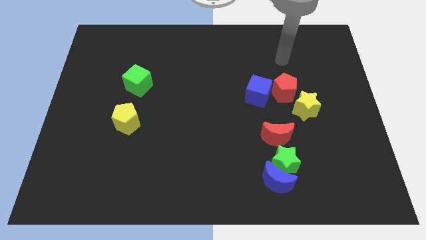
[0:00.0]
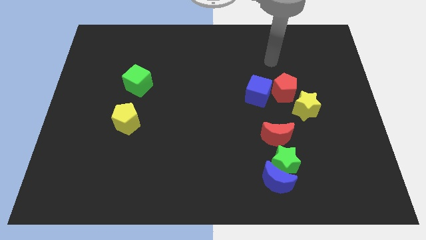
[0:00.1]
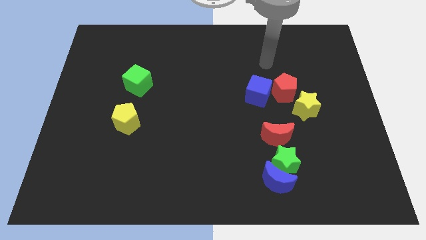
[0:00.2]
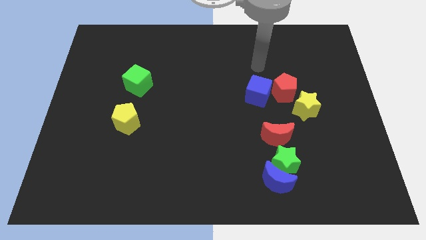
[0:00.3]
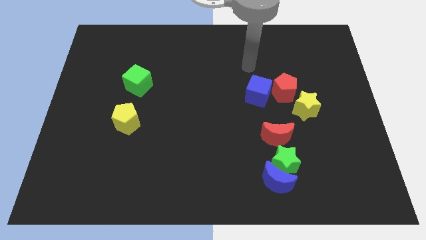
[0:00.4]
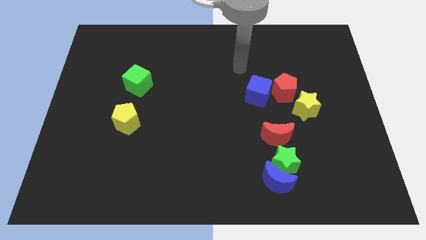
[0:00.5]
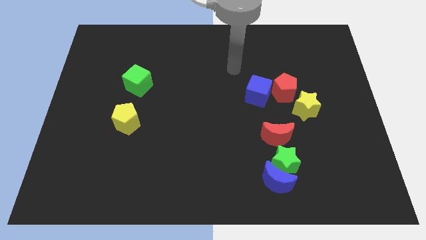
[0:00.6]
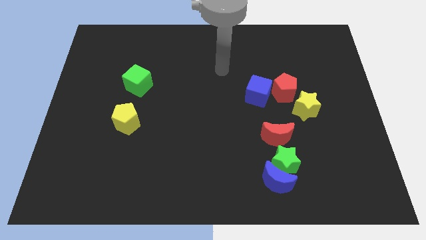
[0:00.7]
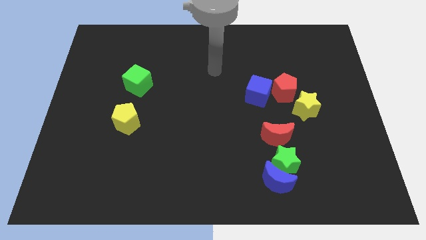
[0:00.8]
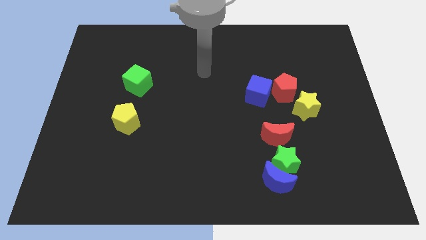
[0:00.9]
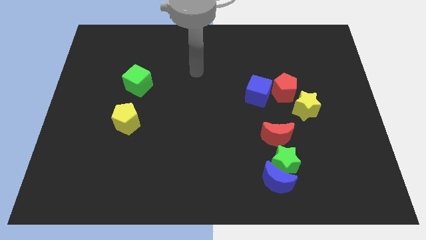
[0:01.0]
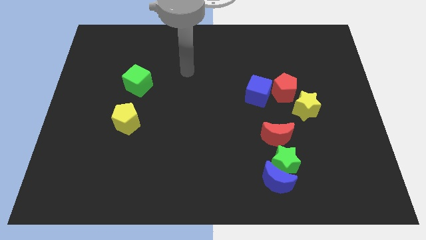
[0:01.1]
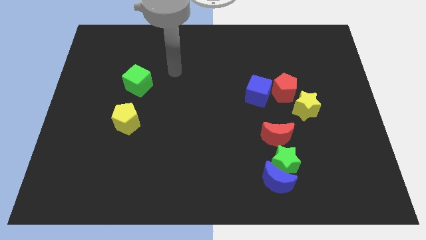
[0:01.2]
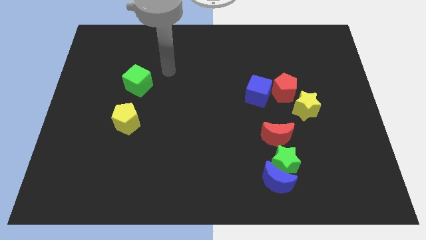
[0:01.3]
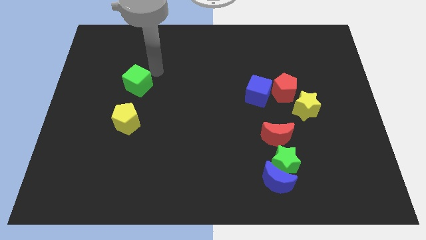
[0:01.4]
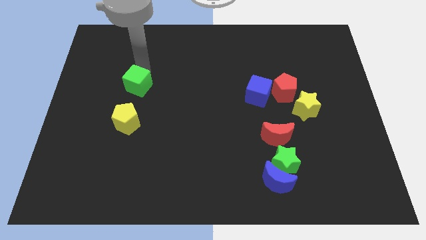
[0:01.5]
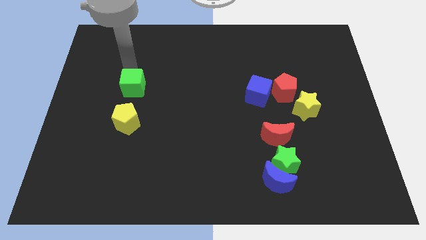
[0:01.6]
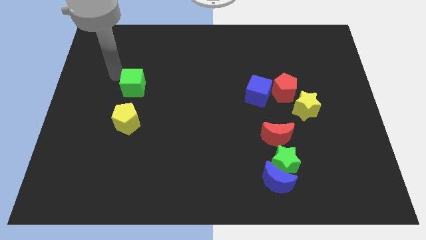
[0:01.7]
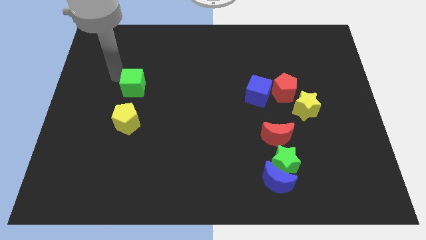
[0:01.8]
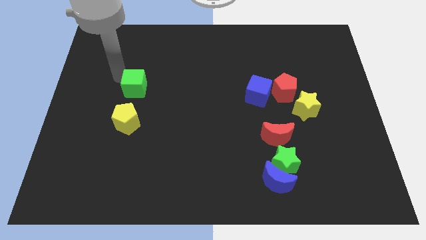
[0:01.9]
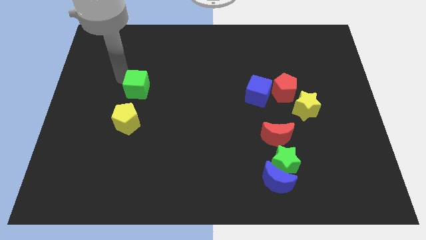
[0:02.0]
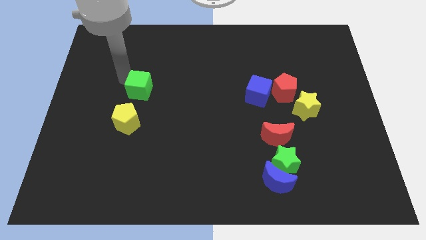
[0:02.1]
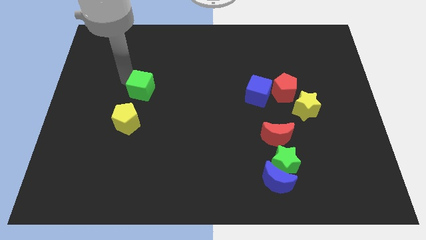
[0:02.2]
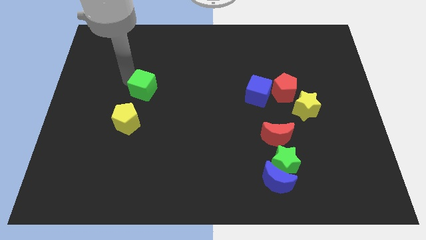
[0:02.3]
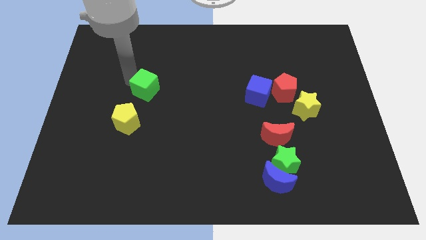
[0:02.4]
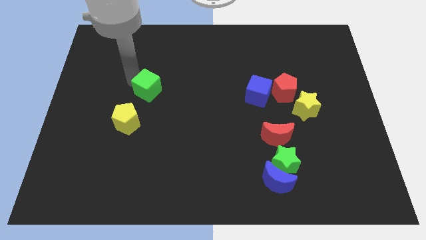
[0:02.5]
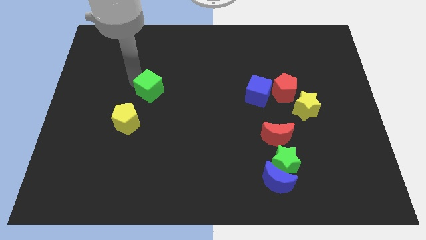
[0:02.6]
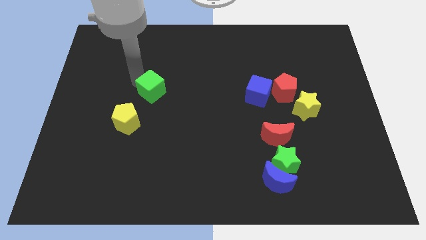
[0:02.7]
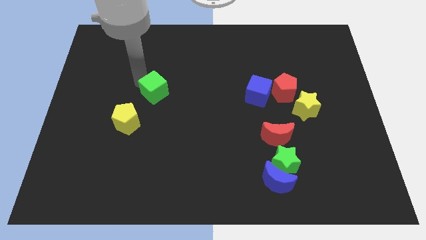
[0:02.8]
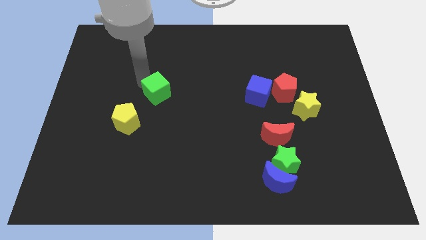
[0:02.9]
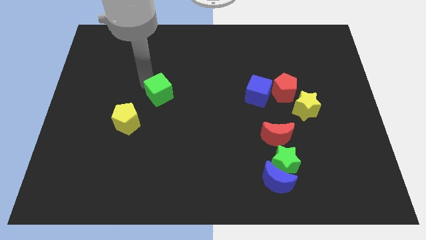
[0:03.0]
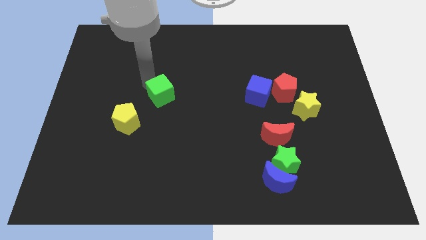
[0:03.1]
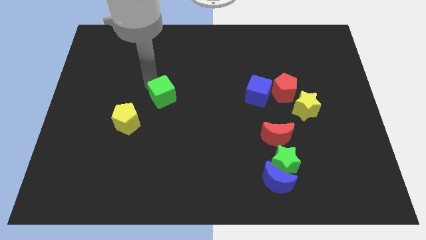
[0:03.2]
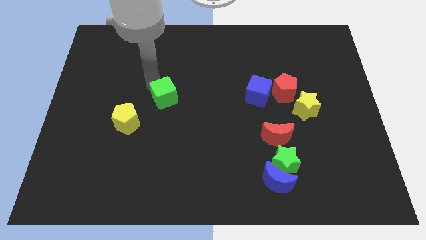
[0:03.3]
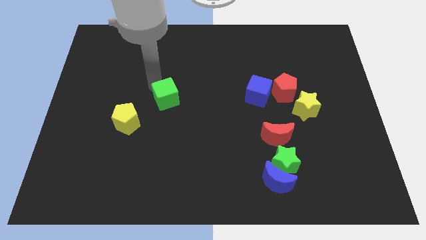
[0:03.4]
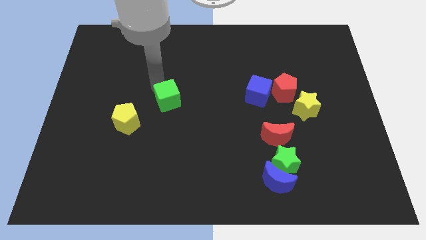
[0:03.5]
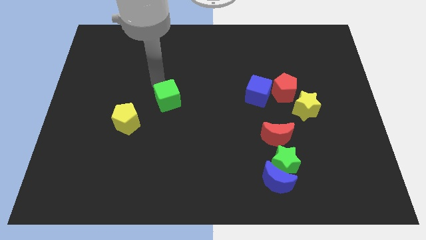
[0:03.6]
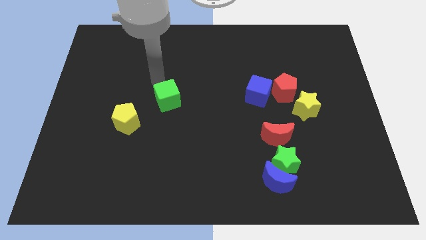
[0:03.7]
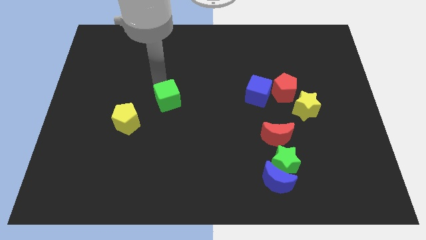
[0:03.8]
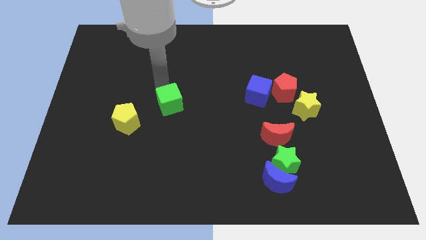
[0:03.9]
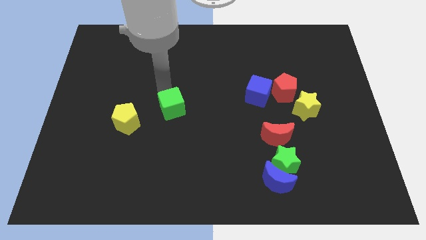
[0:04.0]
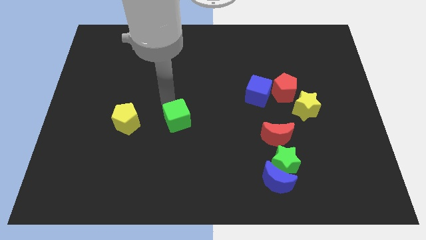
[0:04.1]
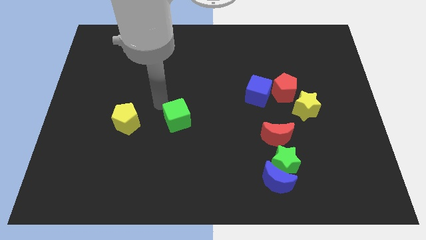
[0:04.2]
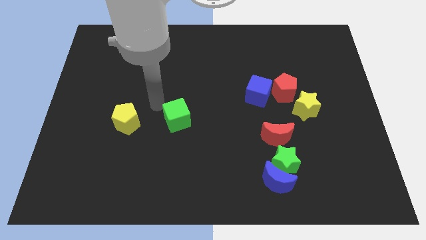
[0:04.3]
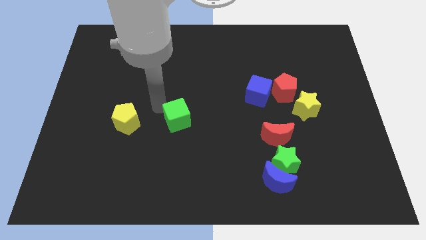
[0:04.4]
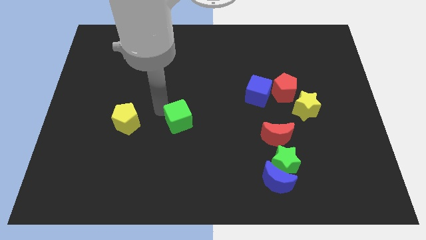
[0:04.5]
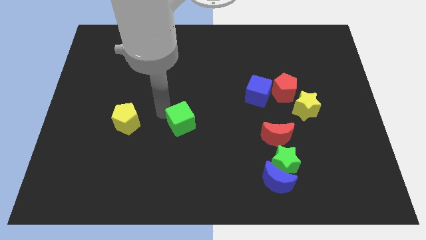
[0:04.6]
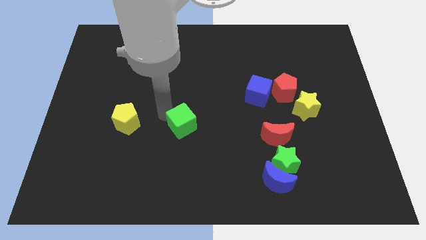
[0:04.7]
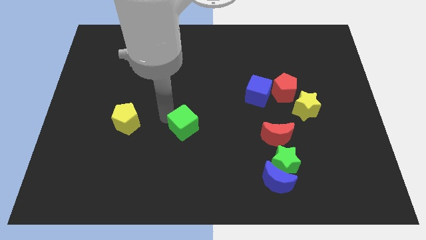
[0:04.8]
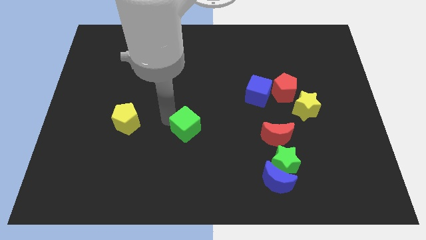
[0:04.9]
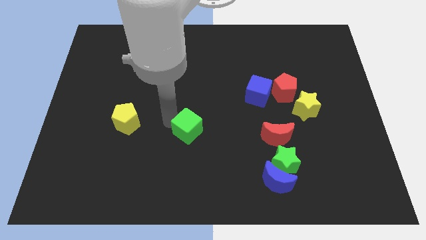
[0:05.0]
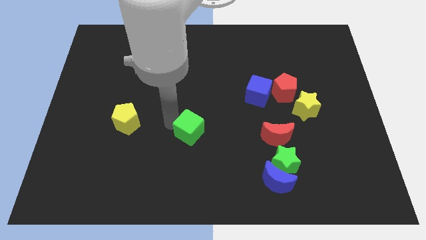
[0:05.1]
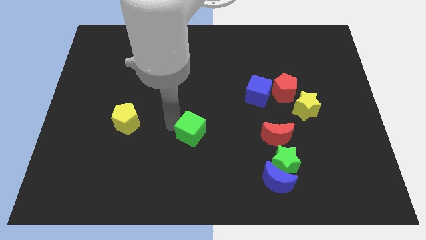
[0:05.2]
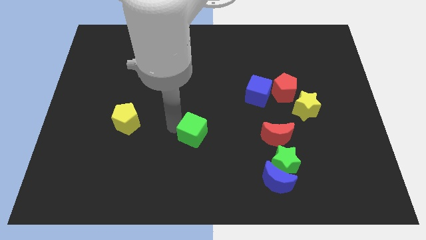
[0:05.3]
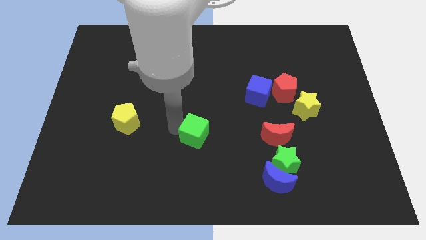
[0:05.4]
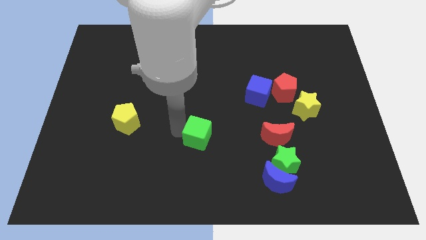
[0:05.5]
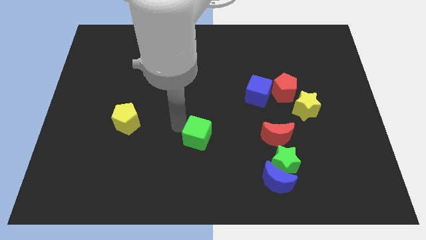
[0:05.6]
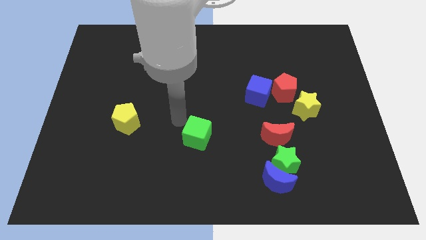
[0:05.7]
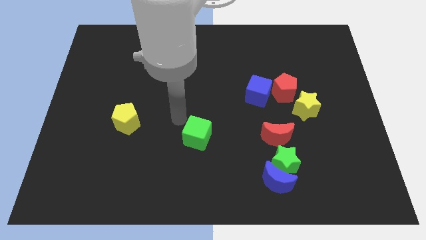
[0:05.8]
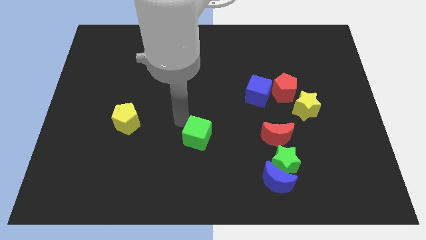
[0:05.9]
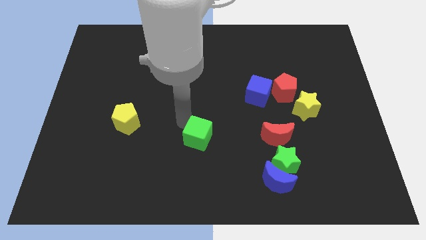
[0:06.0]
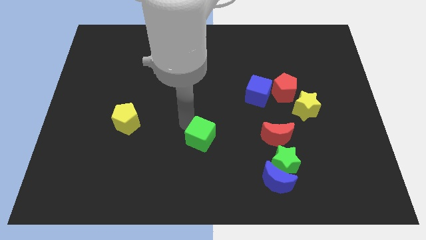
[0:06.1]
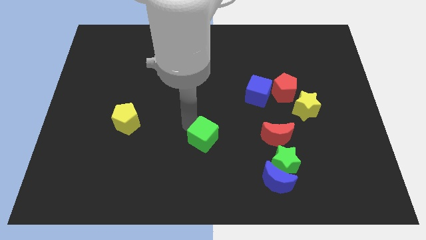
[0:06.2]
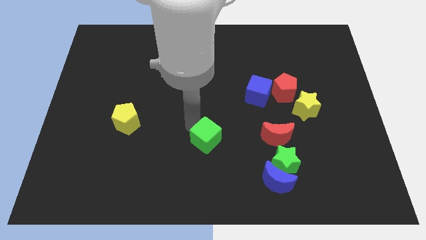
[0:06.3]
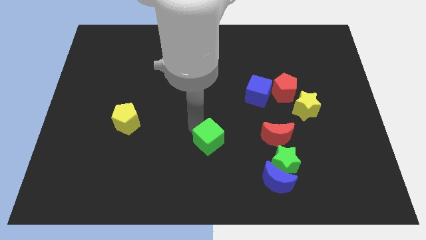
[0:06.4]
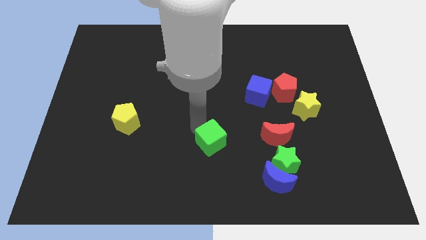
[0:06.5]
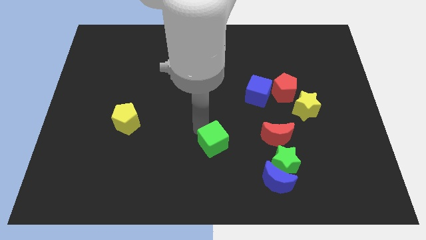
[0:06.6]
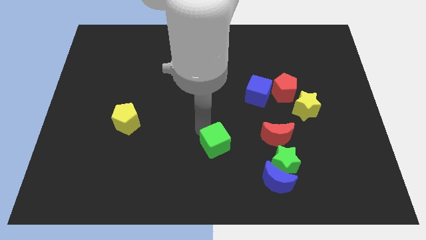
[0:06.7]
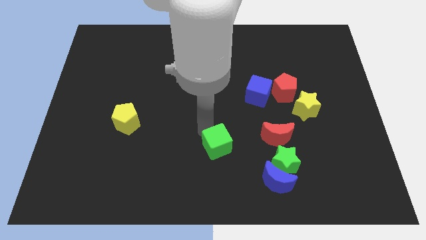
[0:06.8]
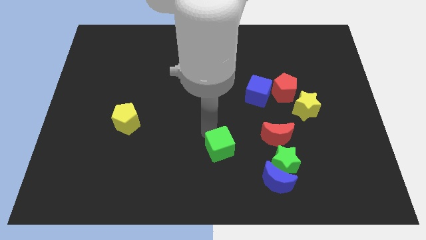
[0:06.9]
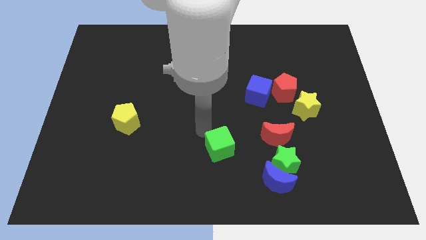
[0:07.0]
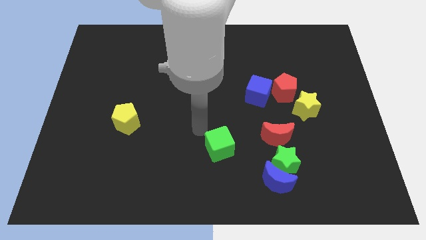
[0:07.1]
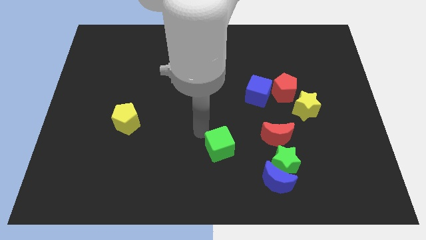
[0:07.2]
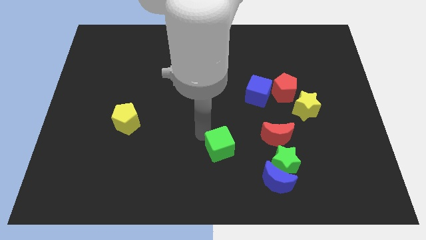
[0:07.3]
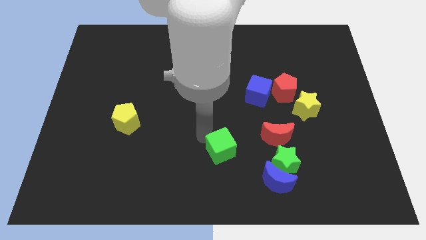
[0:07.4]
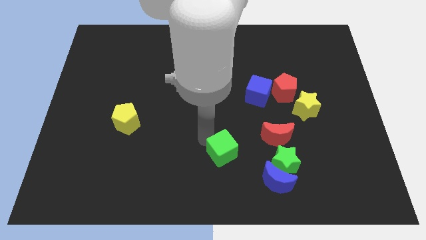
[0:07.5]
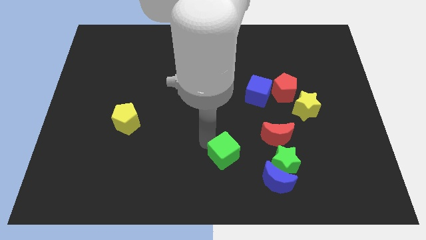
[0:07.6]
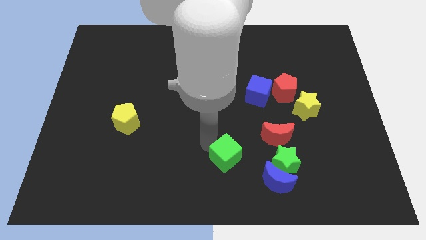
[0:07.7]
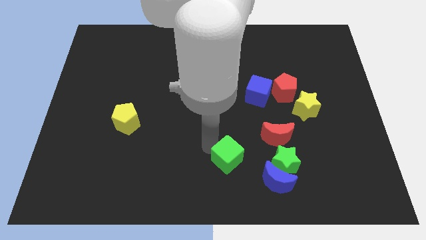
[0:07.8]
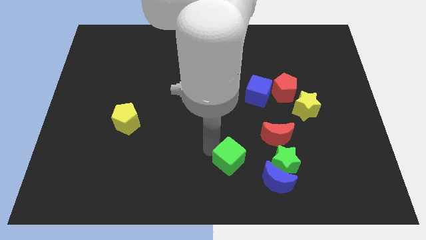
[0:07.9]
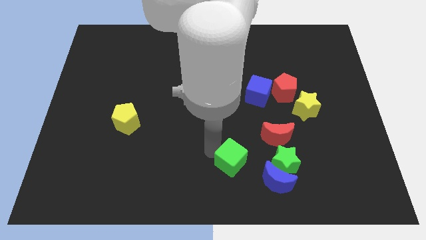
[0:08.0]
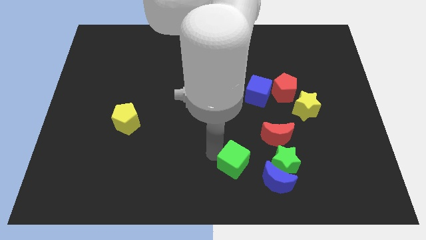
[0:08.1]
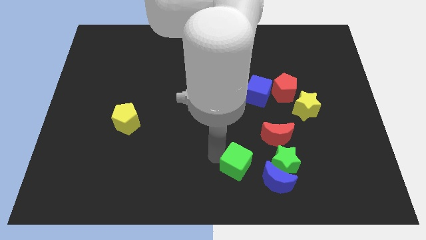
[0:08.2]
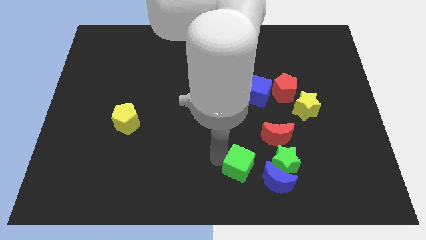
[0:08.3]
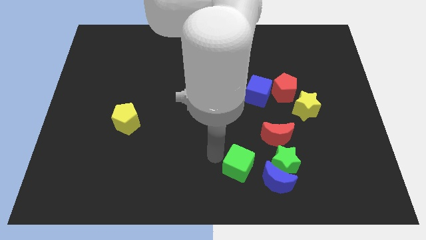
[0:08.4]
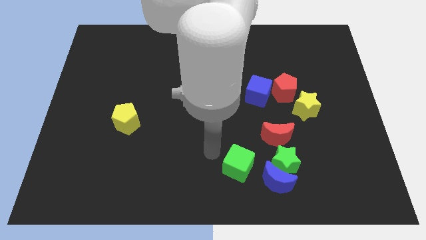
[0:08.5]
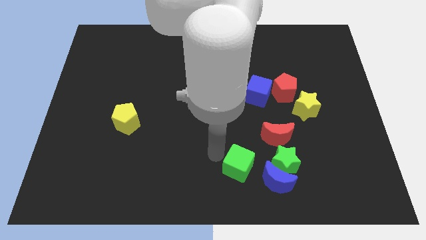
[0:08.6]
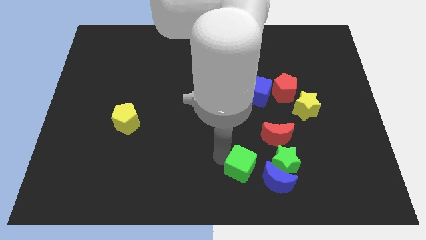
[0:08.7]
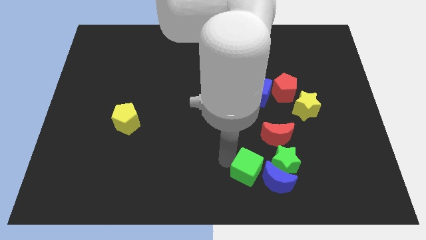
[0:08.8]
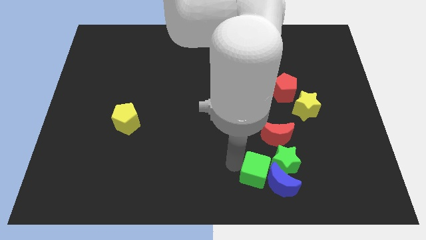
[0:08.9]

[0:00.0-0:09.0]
slide the green cube to the blue moon
